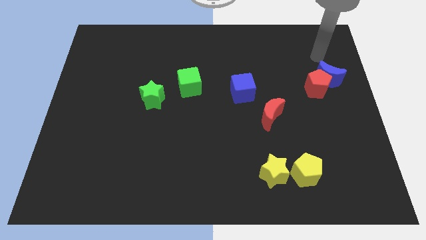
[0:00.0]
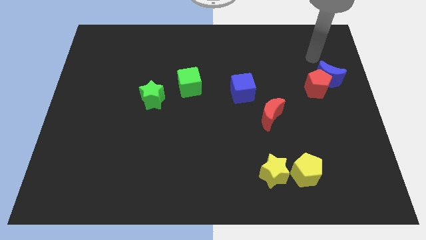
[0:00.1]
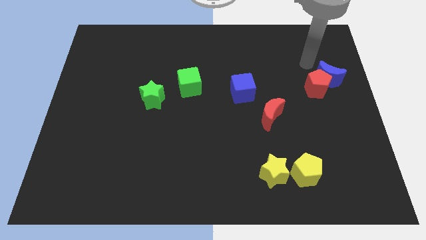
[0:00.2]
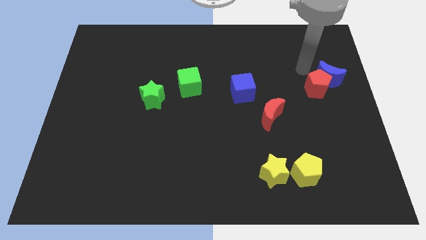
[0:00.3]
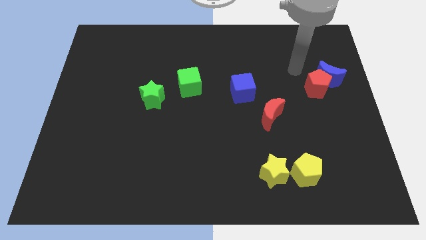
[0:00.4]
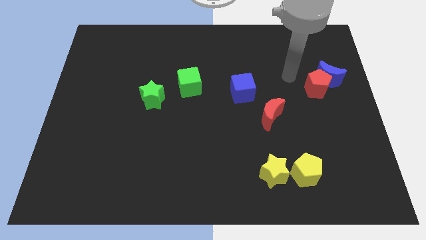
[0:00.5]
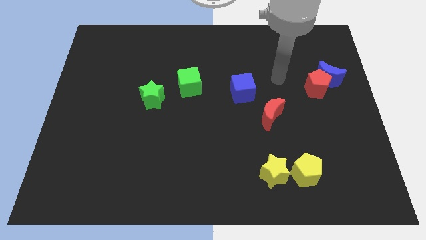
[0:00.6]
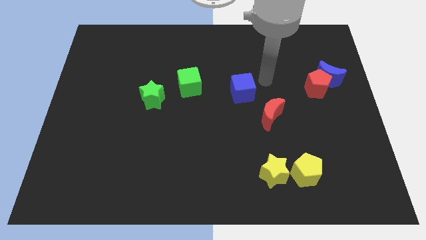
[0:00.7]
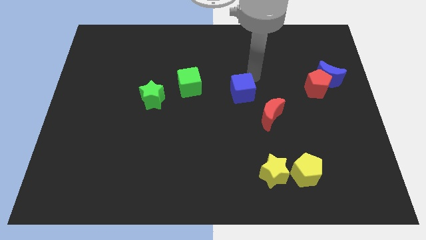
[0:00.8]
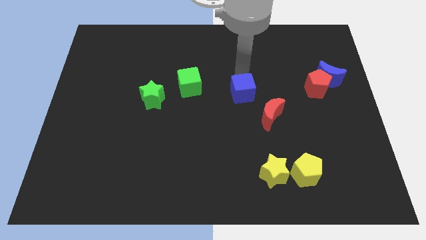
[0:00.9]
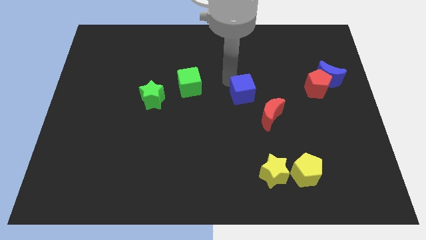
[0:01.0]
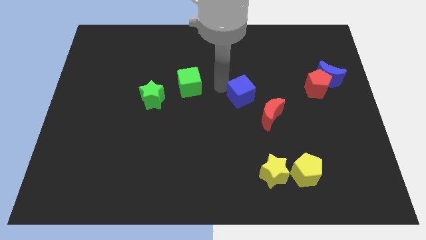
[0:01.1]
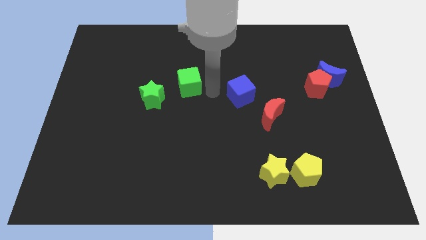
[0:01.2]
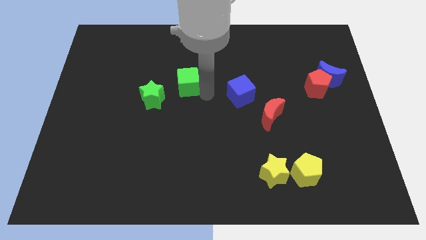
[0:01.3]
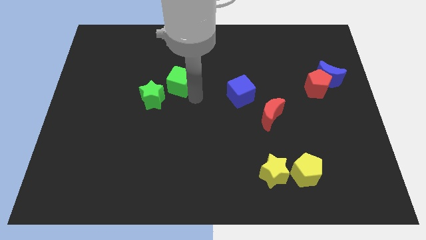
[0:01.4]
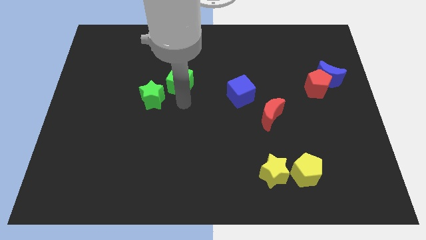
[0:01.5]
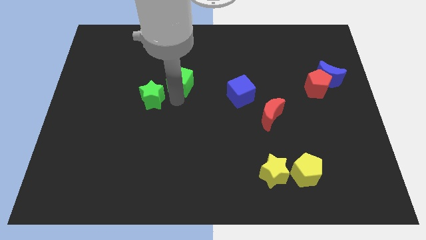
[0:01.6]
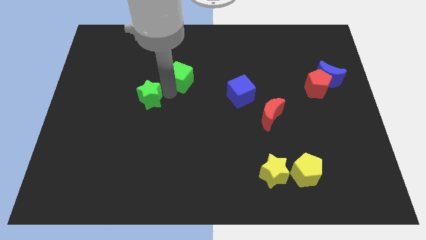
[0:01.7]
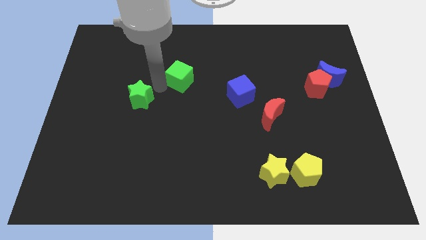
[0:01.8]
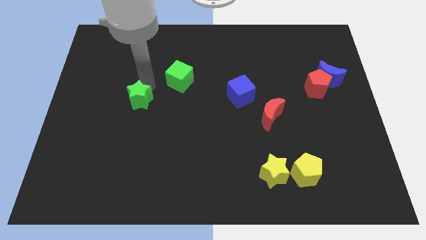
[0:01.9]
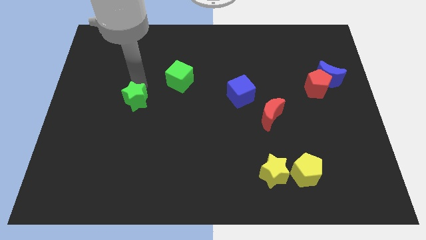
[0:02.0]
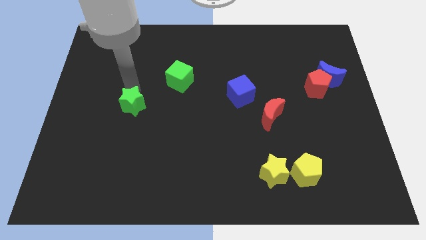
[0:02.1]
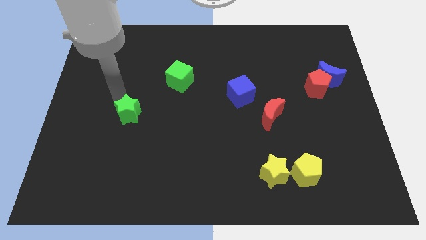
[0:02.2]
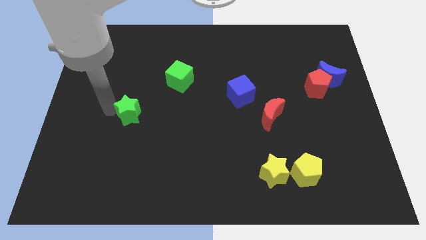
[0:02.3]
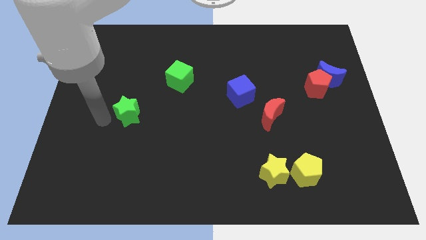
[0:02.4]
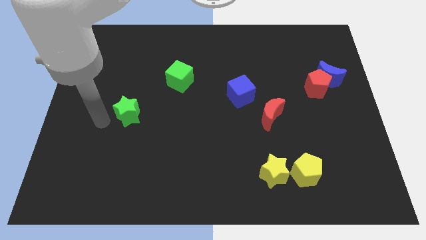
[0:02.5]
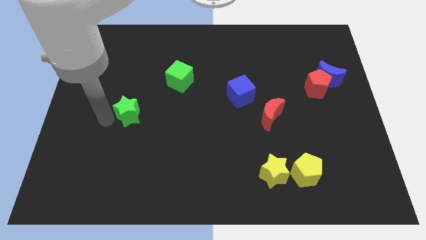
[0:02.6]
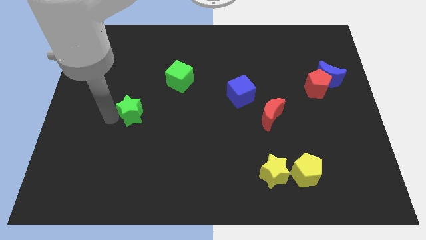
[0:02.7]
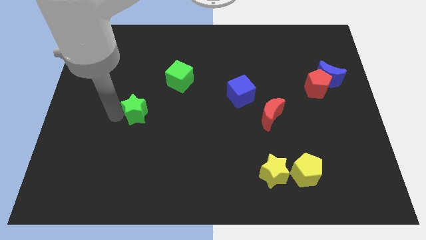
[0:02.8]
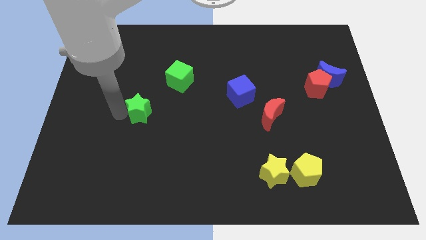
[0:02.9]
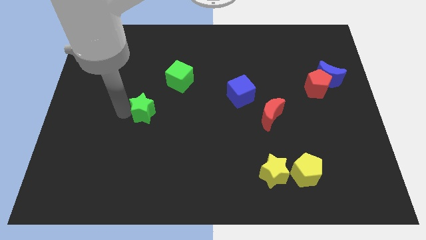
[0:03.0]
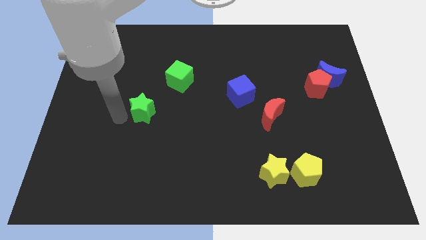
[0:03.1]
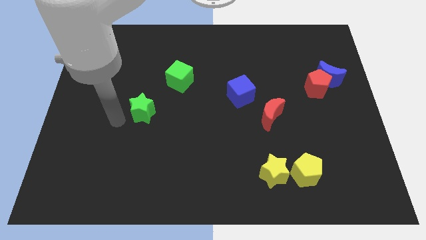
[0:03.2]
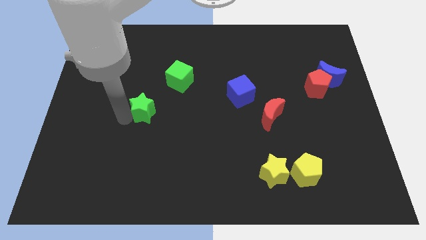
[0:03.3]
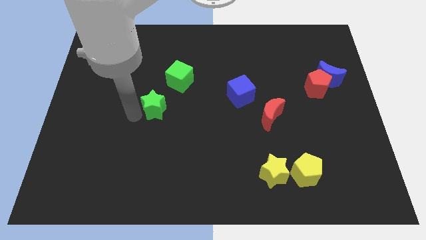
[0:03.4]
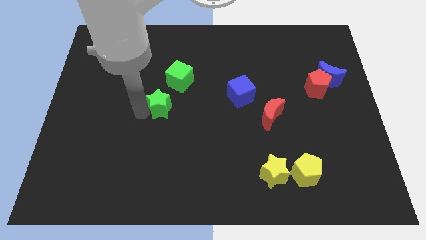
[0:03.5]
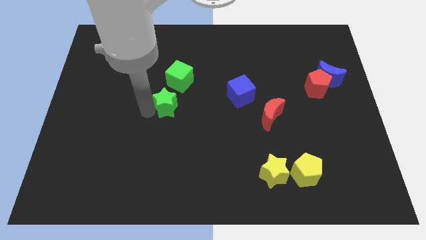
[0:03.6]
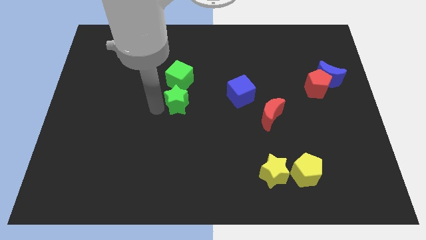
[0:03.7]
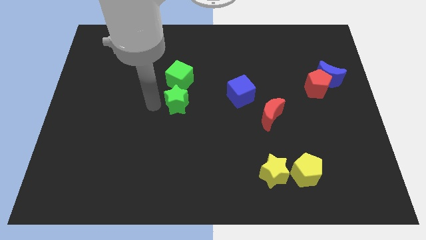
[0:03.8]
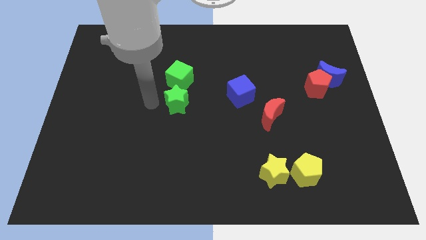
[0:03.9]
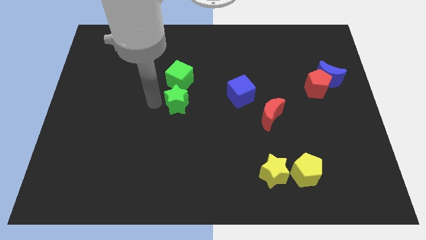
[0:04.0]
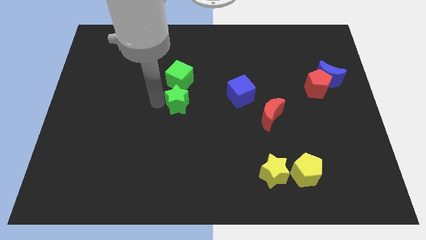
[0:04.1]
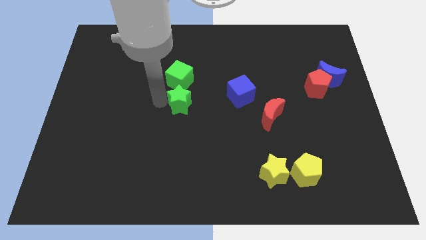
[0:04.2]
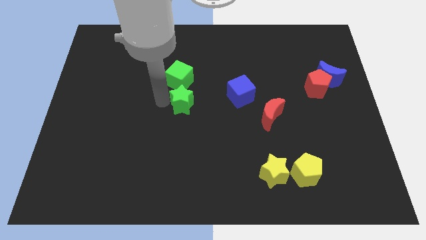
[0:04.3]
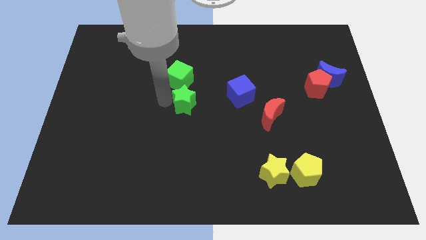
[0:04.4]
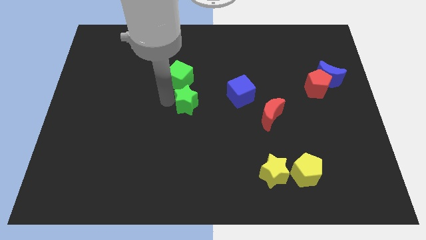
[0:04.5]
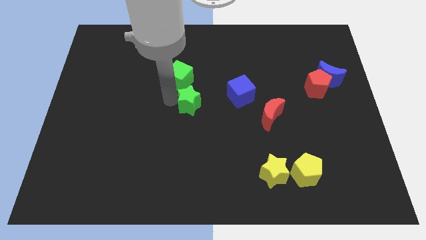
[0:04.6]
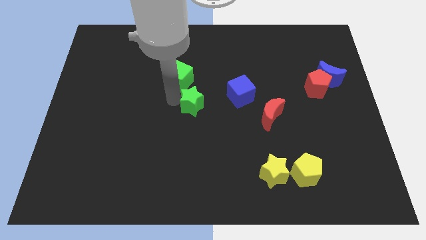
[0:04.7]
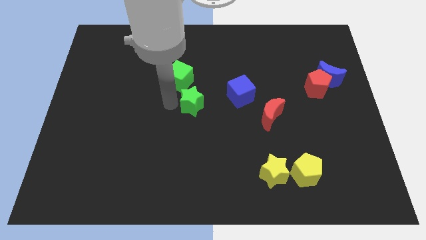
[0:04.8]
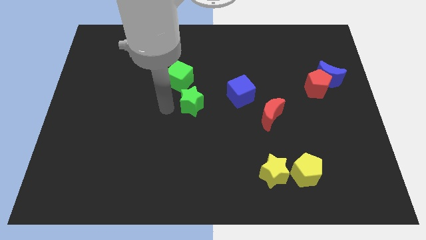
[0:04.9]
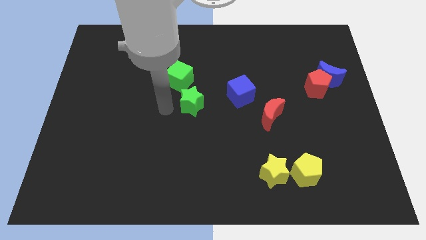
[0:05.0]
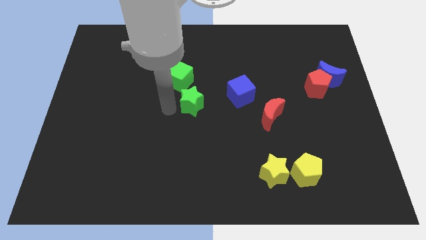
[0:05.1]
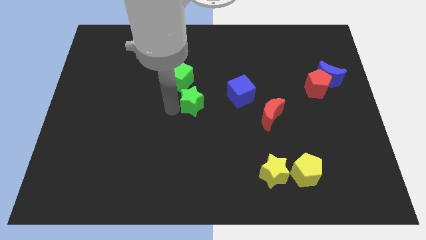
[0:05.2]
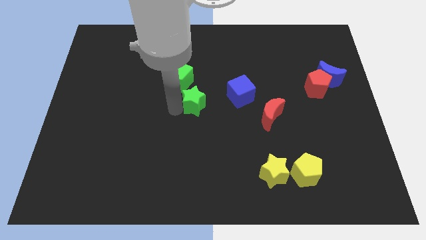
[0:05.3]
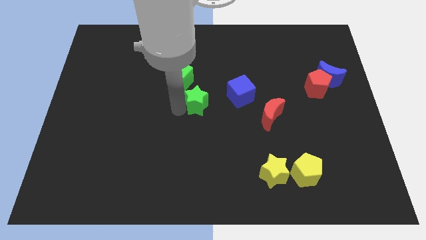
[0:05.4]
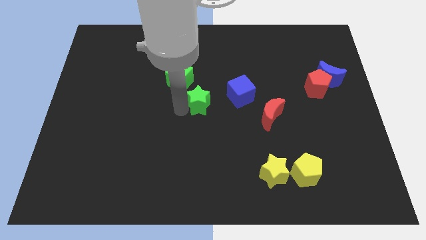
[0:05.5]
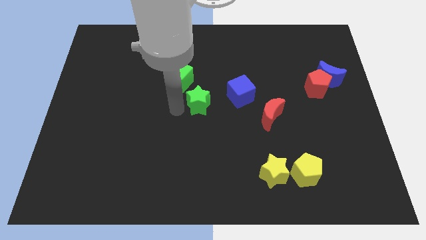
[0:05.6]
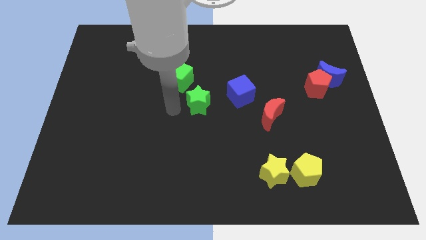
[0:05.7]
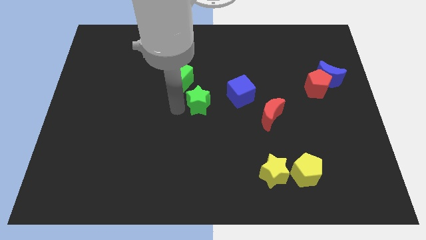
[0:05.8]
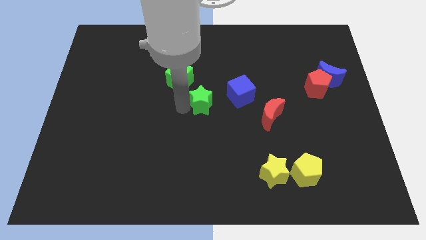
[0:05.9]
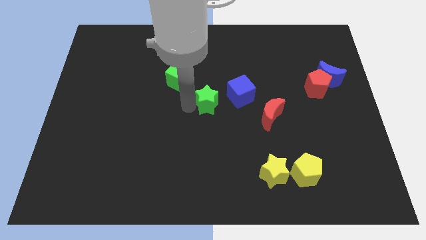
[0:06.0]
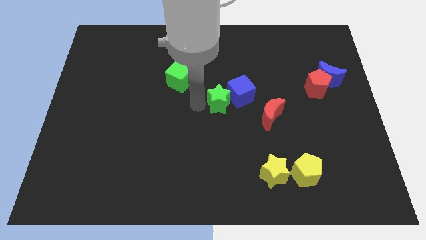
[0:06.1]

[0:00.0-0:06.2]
move the green star towards the blue cube

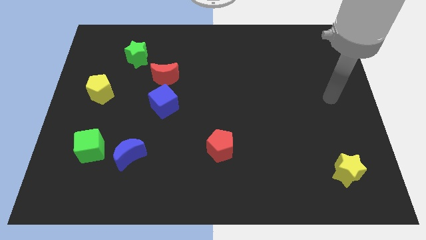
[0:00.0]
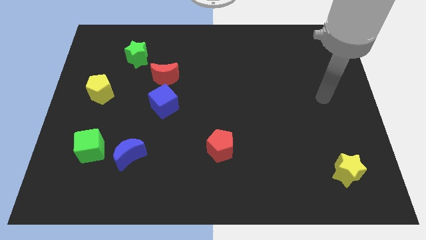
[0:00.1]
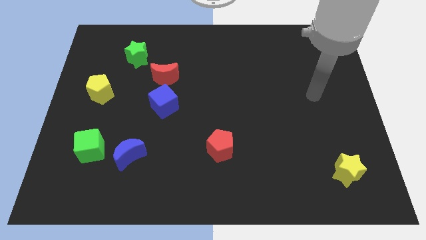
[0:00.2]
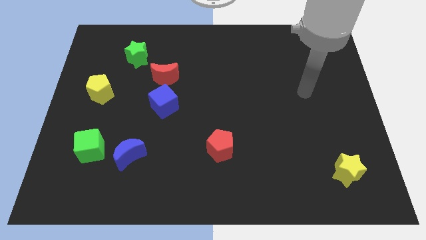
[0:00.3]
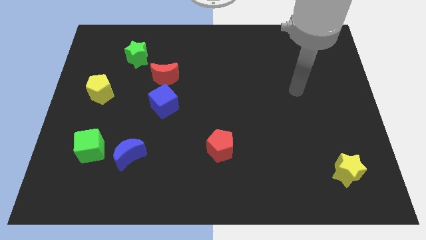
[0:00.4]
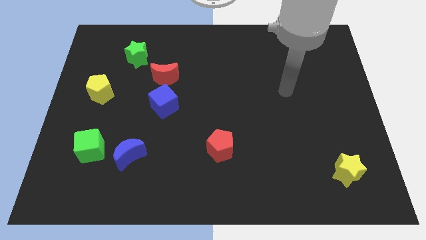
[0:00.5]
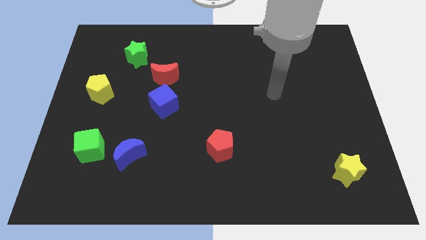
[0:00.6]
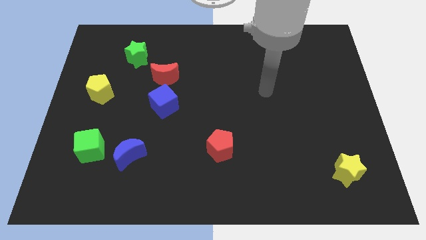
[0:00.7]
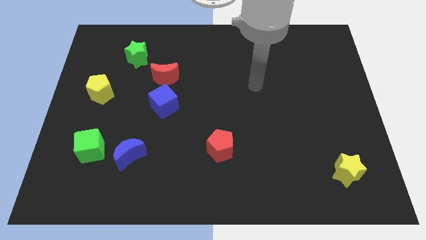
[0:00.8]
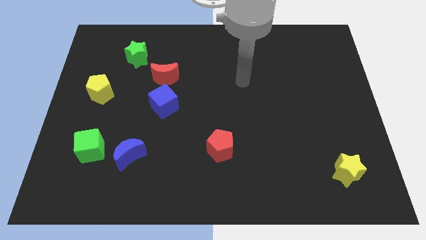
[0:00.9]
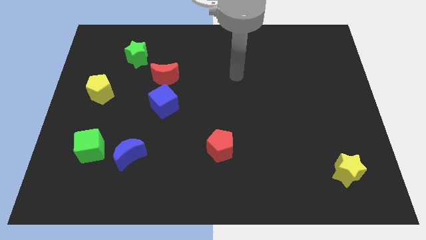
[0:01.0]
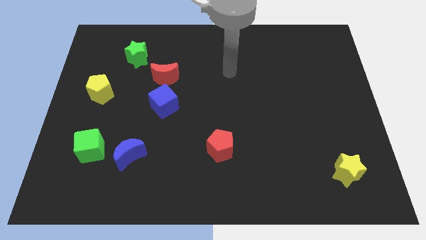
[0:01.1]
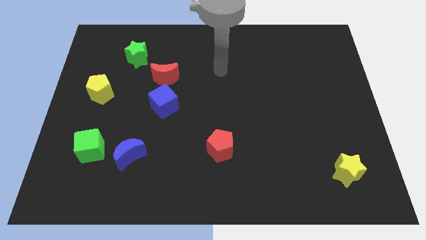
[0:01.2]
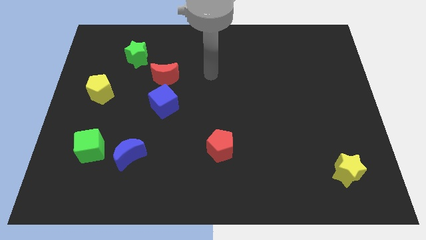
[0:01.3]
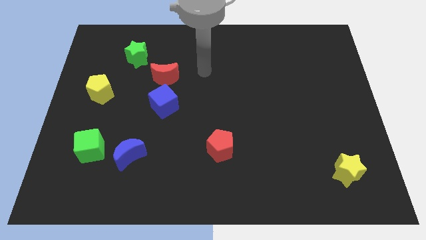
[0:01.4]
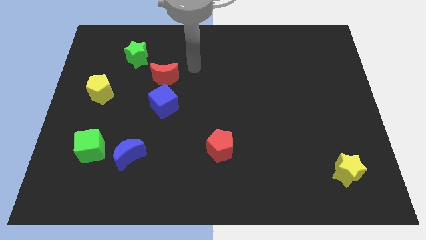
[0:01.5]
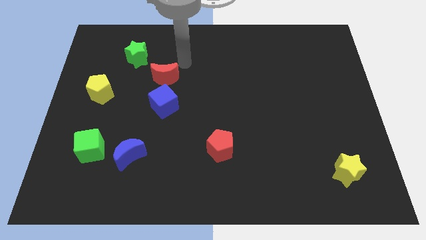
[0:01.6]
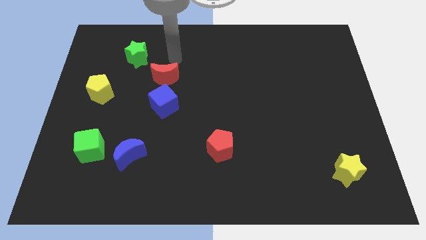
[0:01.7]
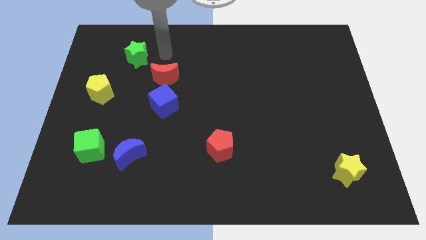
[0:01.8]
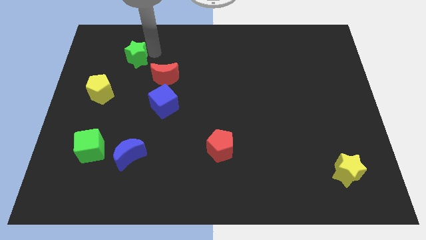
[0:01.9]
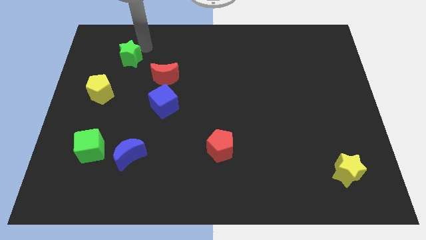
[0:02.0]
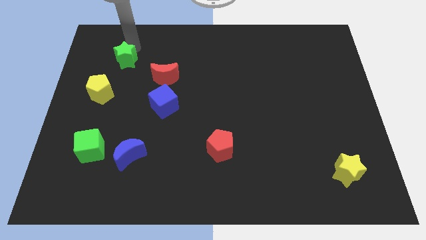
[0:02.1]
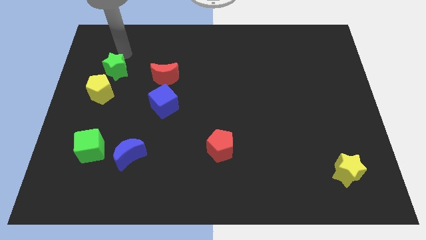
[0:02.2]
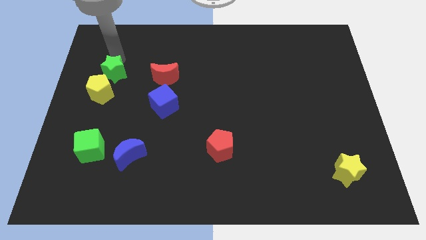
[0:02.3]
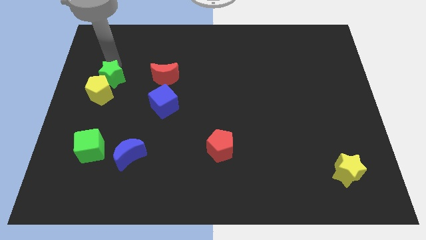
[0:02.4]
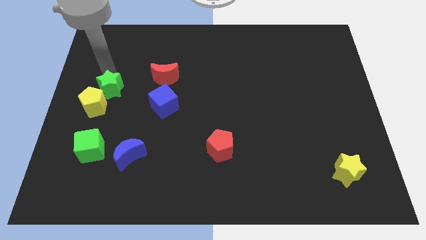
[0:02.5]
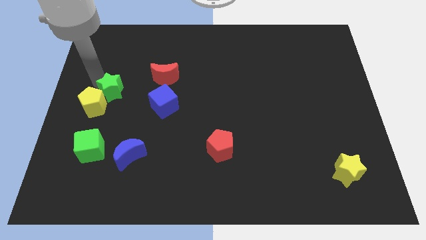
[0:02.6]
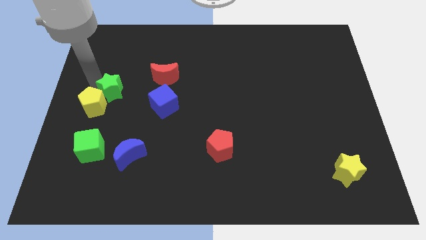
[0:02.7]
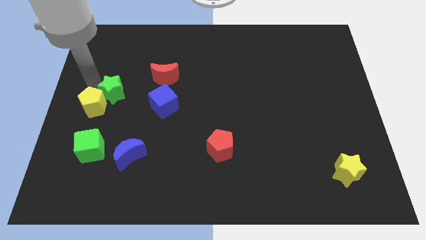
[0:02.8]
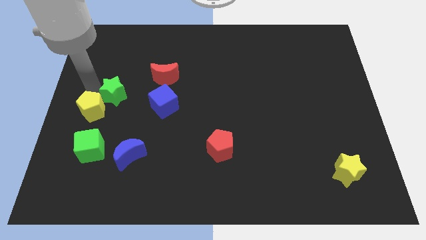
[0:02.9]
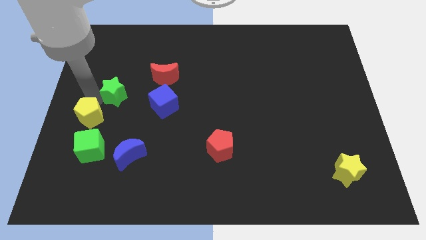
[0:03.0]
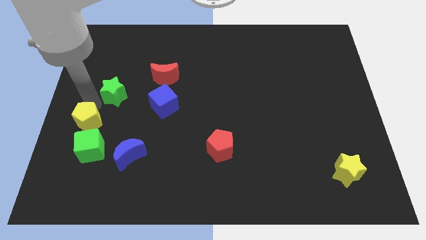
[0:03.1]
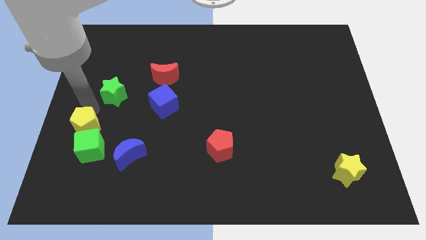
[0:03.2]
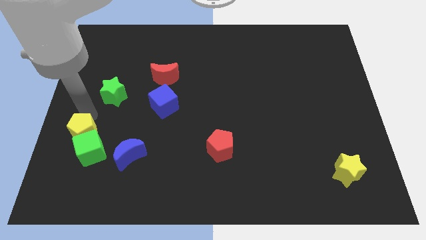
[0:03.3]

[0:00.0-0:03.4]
push the yellow pentagon to the green cube
